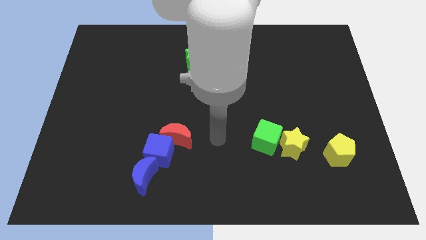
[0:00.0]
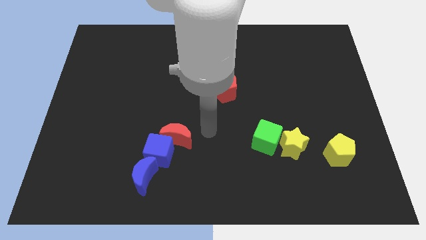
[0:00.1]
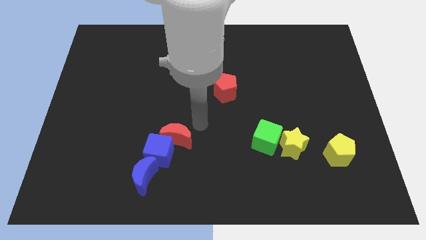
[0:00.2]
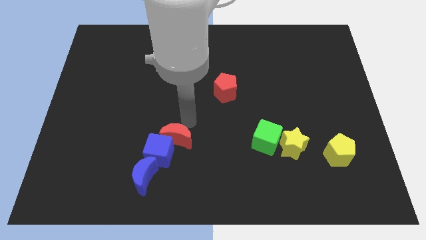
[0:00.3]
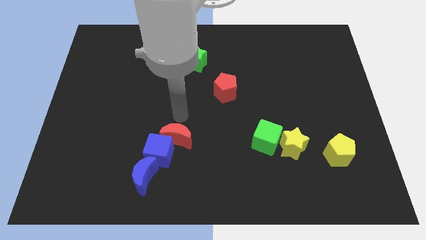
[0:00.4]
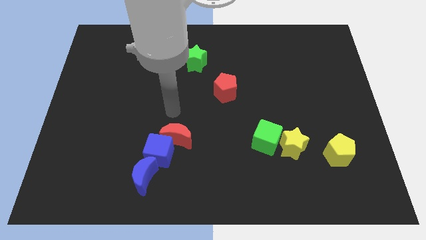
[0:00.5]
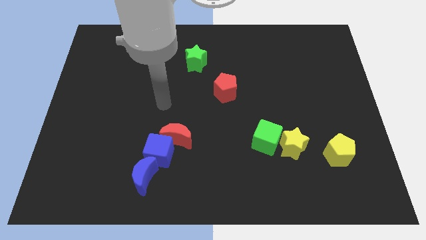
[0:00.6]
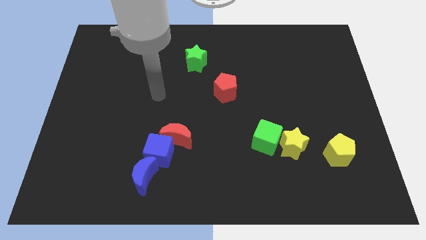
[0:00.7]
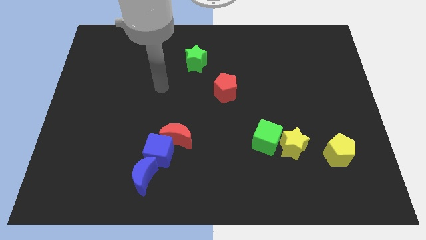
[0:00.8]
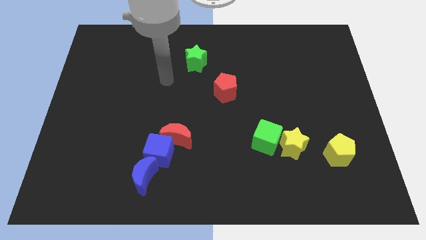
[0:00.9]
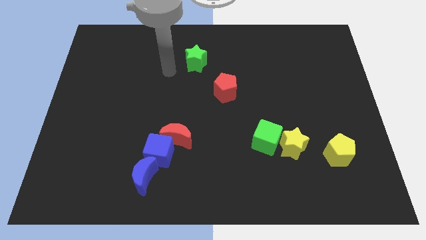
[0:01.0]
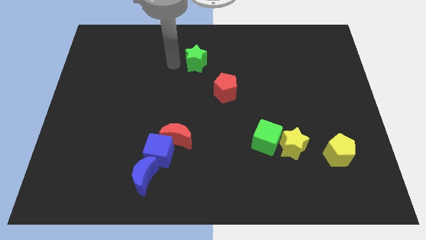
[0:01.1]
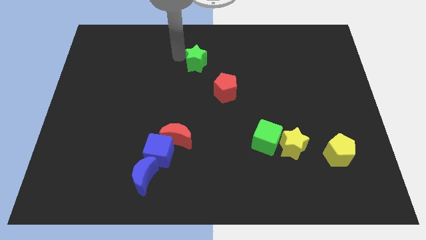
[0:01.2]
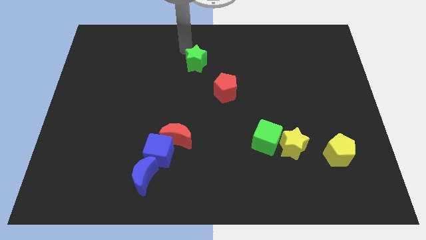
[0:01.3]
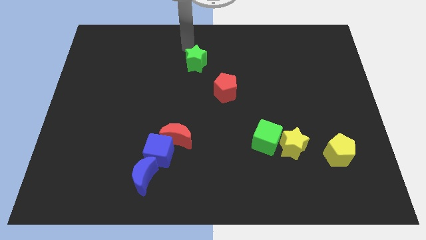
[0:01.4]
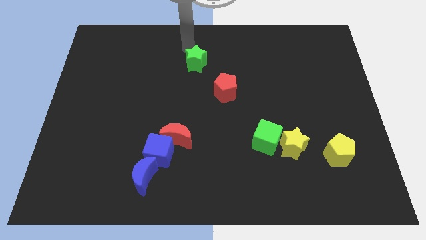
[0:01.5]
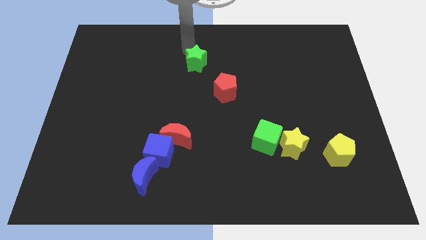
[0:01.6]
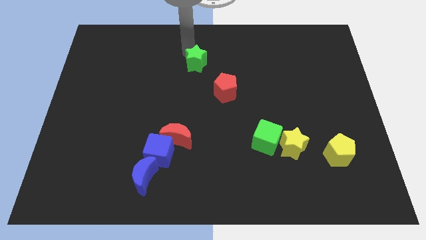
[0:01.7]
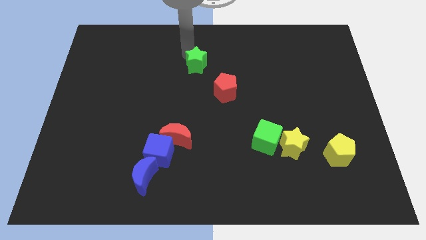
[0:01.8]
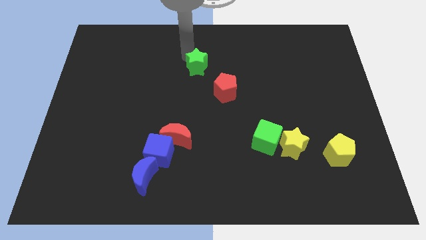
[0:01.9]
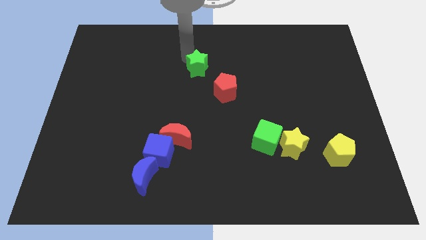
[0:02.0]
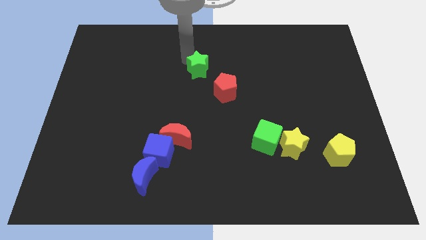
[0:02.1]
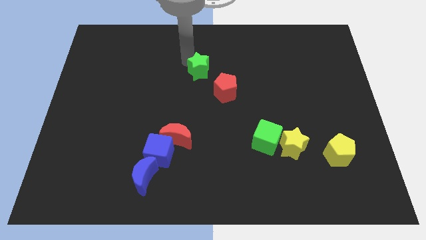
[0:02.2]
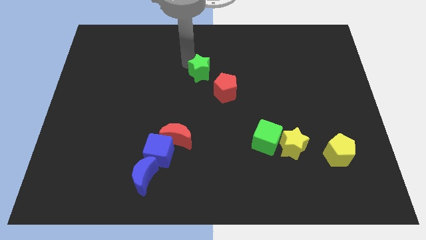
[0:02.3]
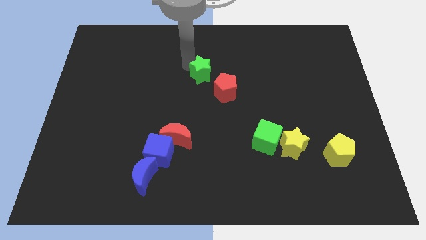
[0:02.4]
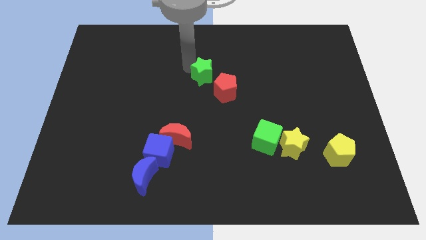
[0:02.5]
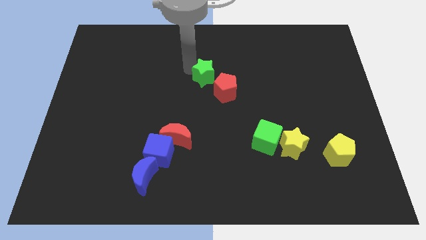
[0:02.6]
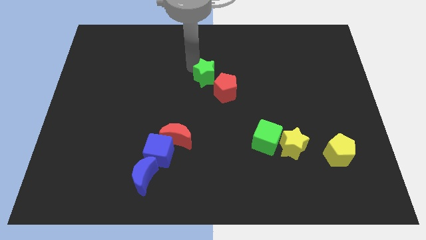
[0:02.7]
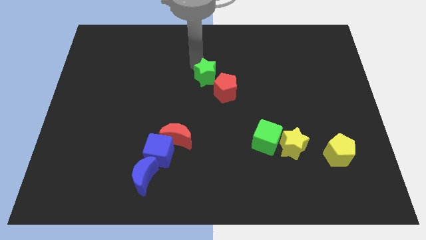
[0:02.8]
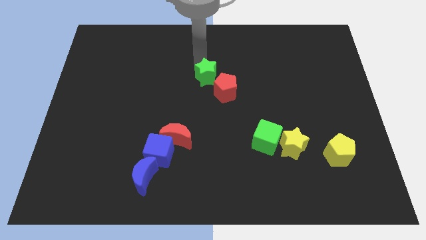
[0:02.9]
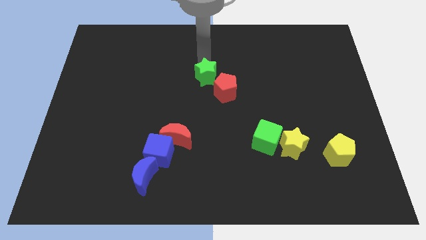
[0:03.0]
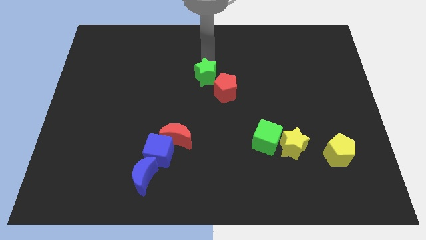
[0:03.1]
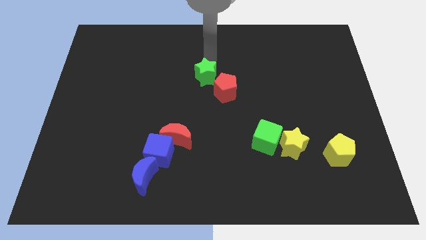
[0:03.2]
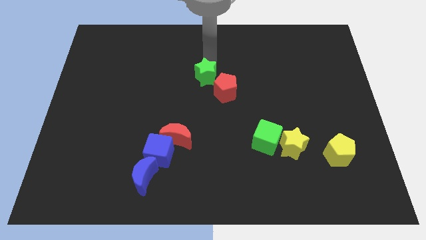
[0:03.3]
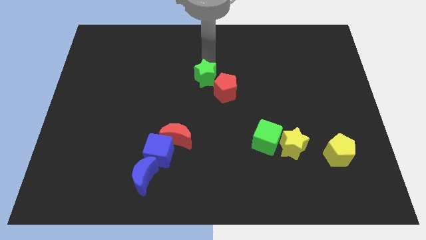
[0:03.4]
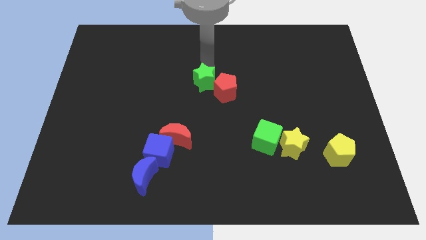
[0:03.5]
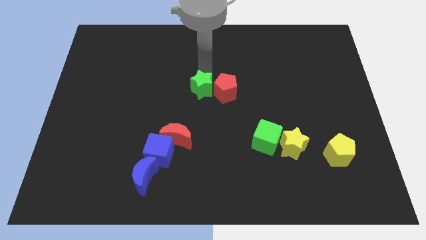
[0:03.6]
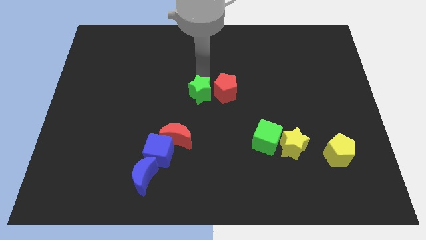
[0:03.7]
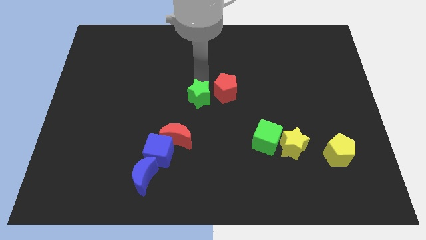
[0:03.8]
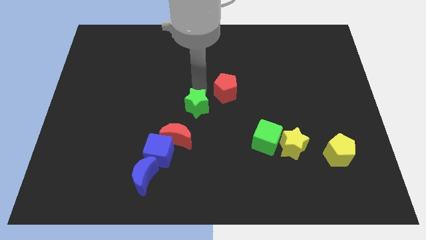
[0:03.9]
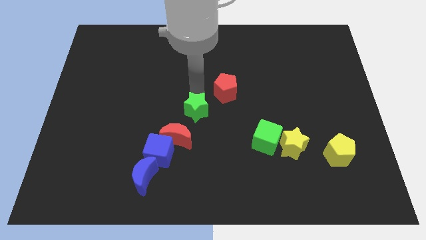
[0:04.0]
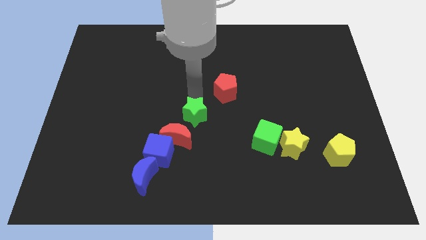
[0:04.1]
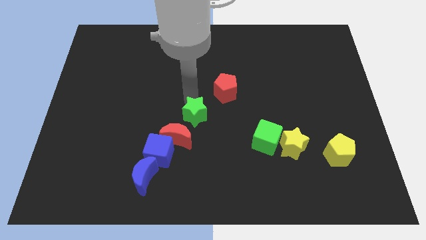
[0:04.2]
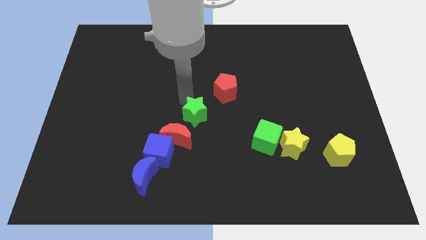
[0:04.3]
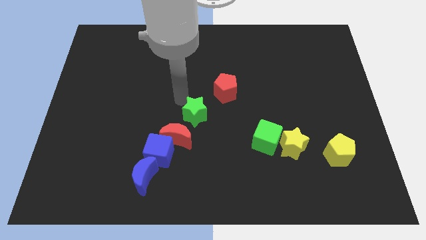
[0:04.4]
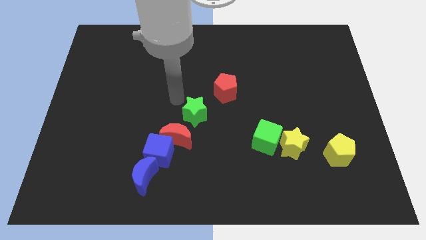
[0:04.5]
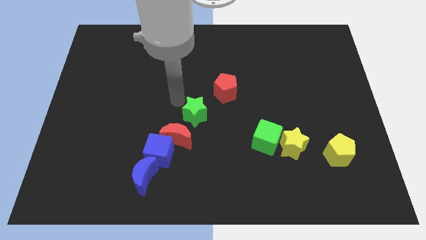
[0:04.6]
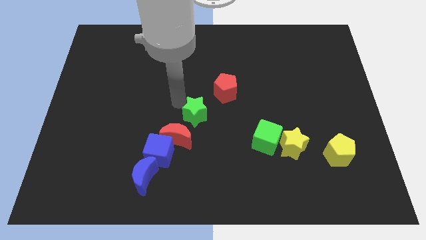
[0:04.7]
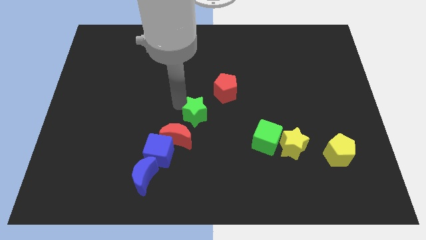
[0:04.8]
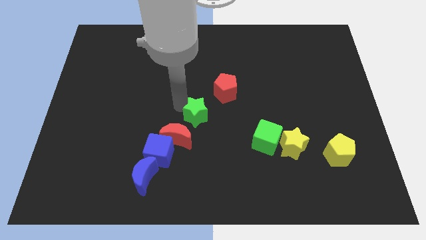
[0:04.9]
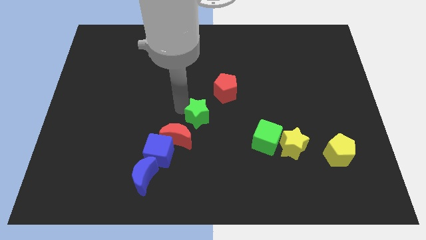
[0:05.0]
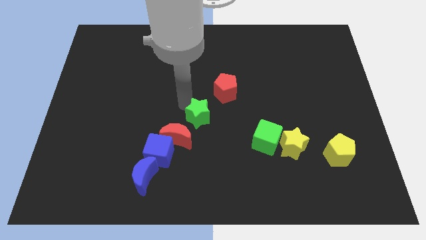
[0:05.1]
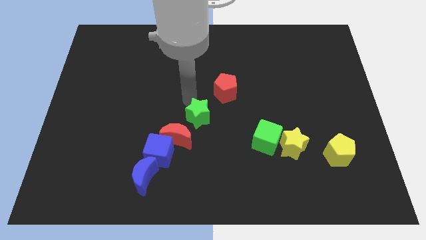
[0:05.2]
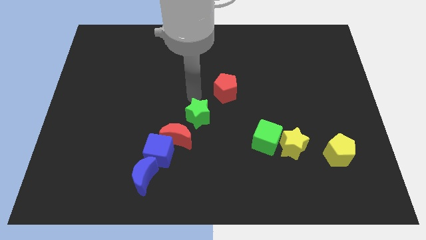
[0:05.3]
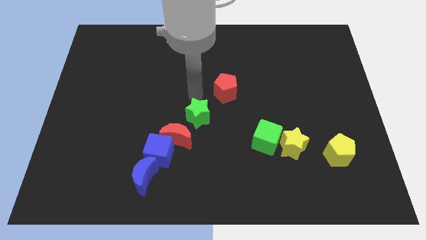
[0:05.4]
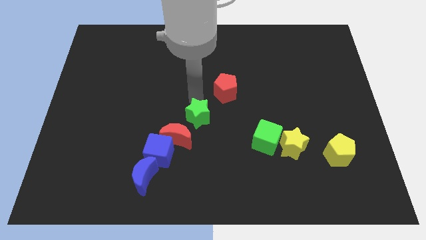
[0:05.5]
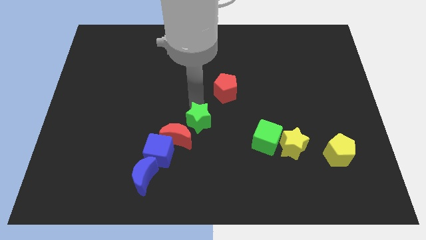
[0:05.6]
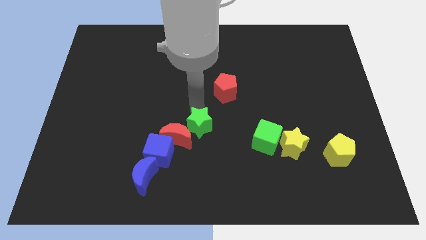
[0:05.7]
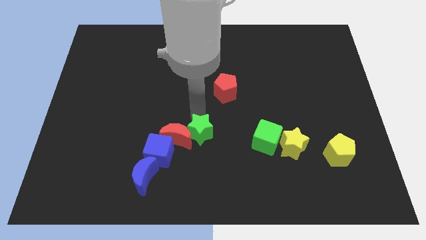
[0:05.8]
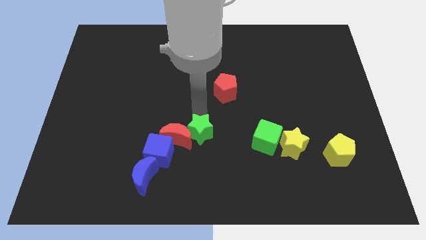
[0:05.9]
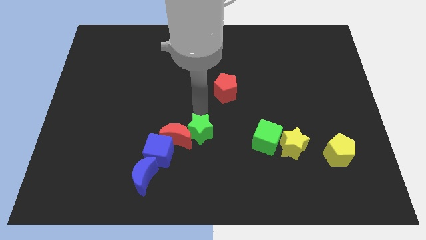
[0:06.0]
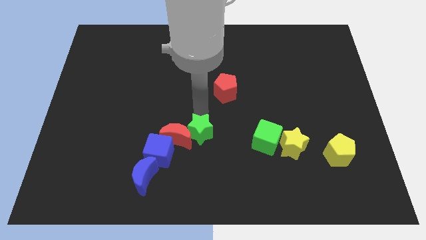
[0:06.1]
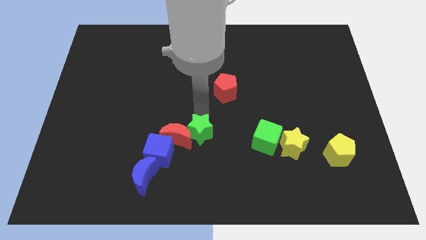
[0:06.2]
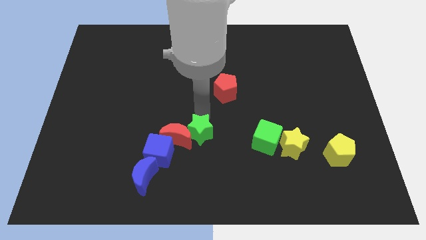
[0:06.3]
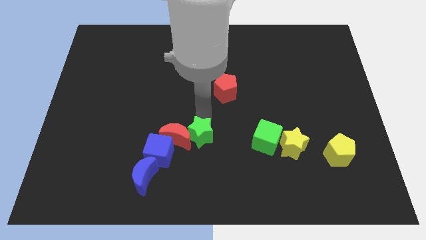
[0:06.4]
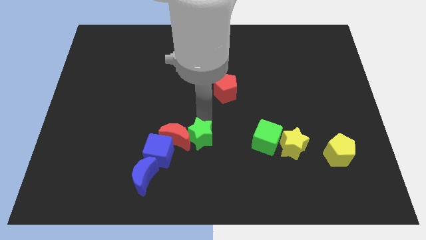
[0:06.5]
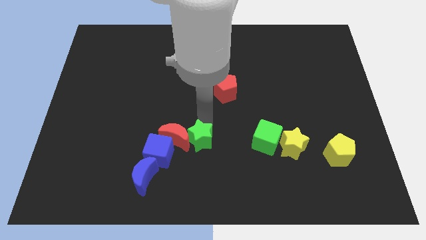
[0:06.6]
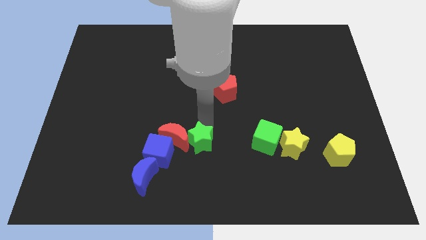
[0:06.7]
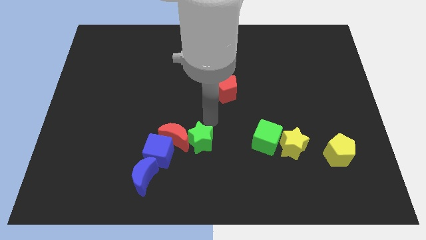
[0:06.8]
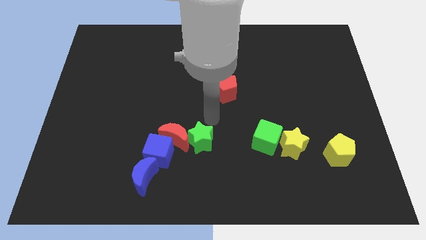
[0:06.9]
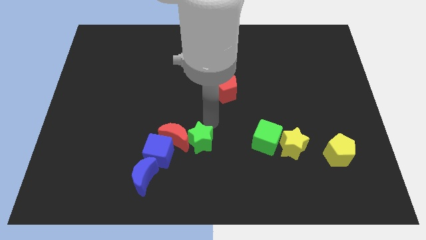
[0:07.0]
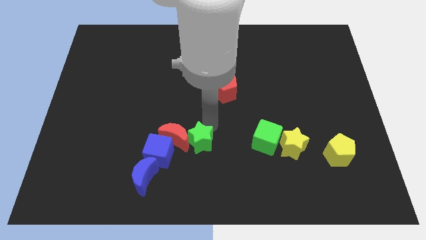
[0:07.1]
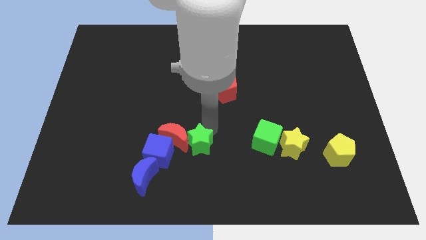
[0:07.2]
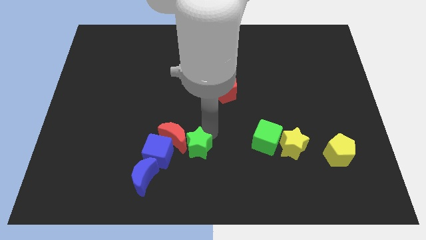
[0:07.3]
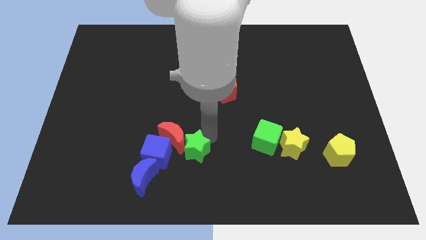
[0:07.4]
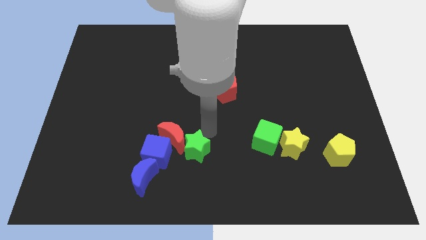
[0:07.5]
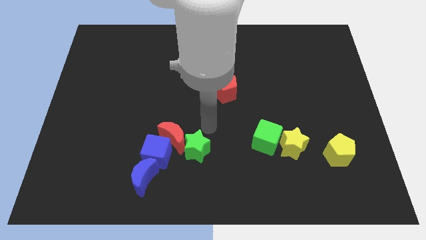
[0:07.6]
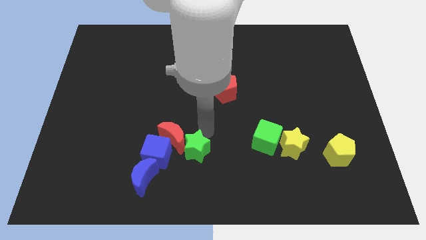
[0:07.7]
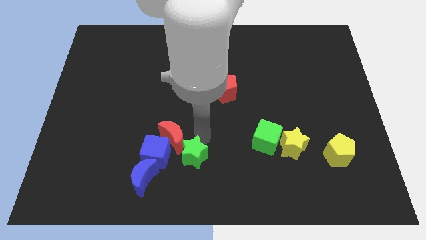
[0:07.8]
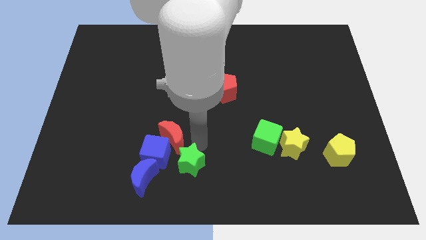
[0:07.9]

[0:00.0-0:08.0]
push the green star to the bottom right side of the blue cube
